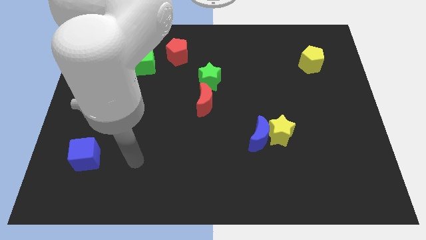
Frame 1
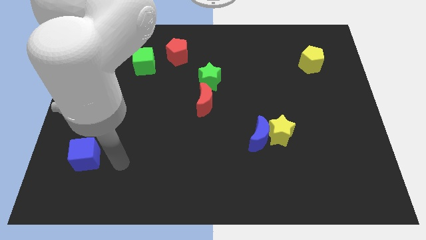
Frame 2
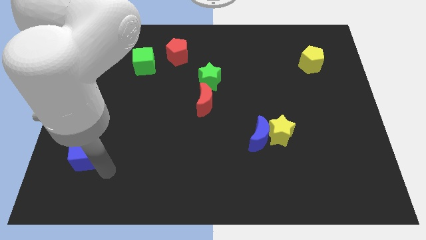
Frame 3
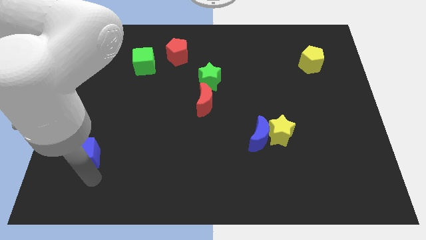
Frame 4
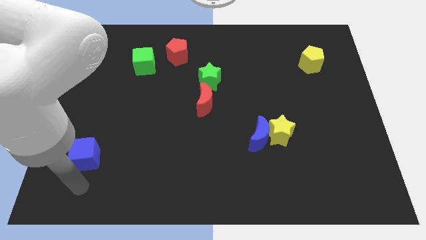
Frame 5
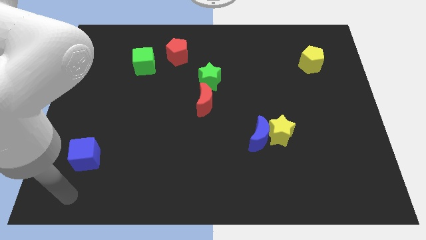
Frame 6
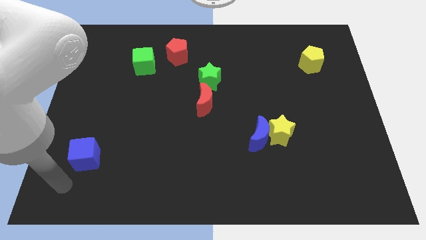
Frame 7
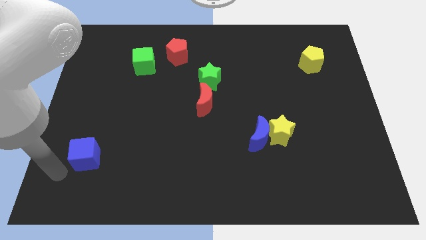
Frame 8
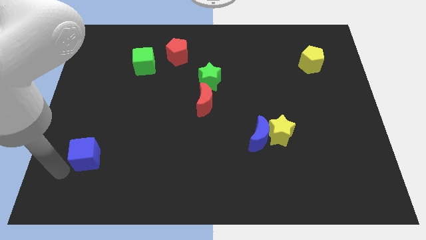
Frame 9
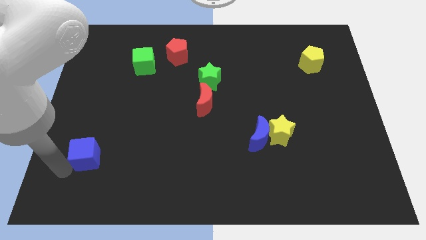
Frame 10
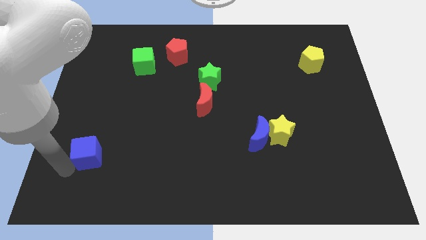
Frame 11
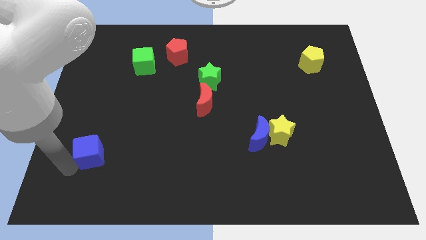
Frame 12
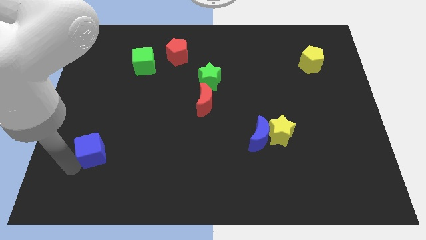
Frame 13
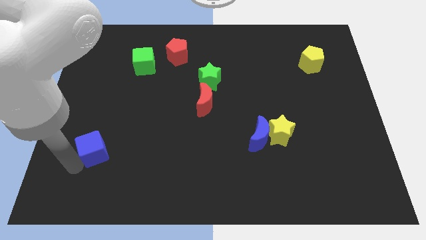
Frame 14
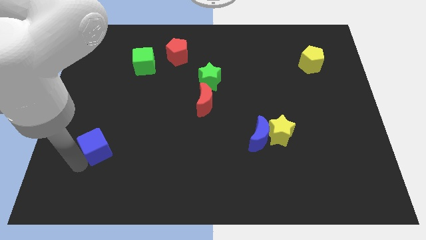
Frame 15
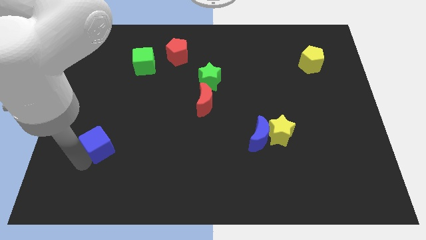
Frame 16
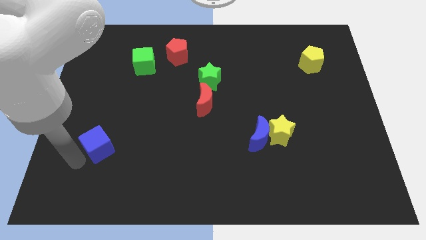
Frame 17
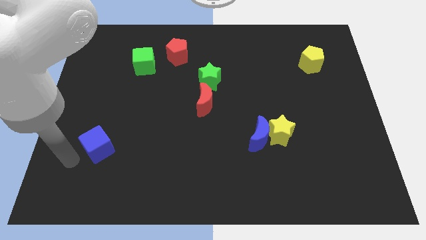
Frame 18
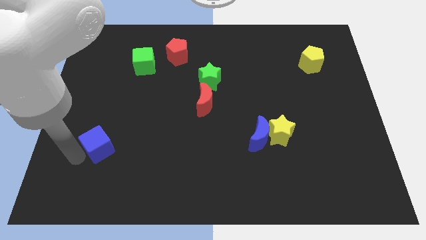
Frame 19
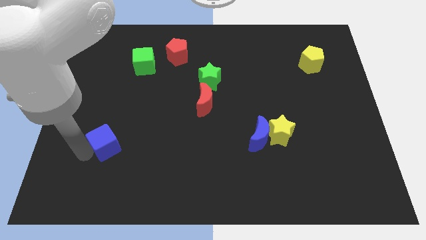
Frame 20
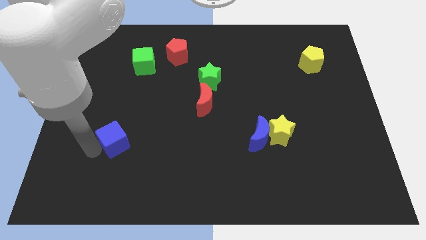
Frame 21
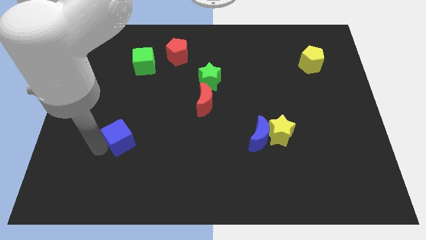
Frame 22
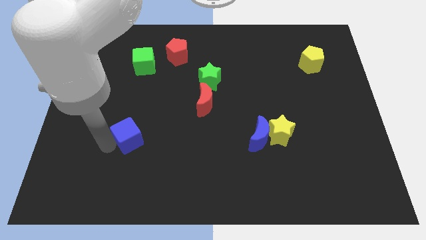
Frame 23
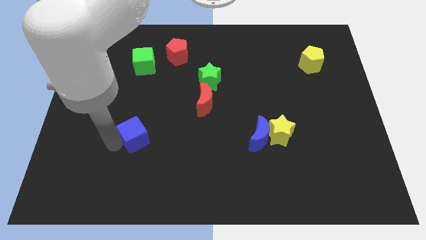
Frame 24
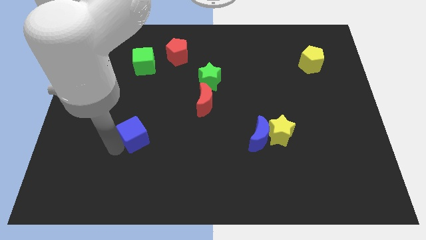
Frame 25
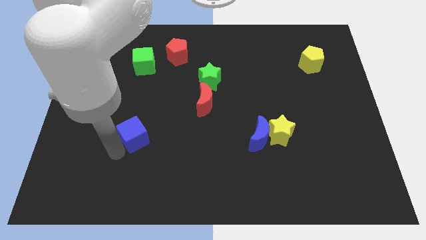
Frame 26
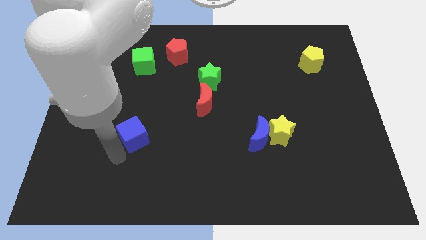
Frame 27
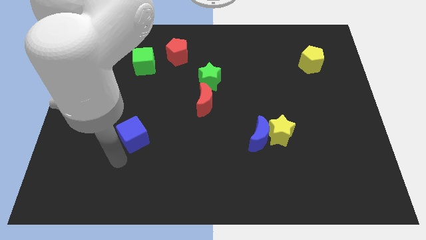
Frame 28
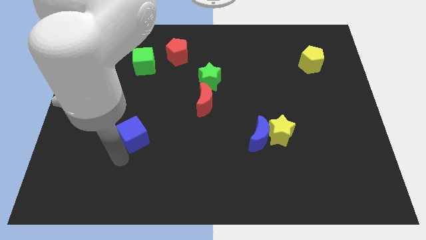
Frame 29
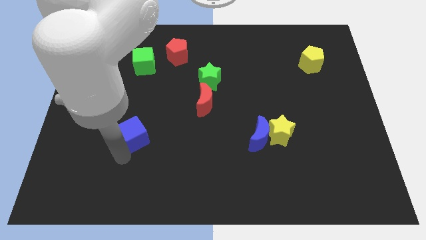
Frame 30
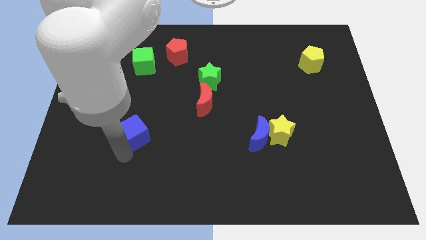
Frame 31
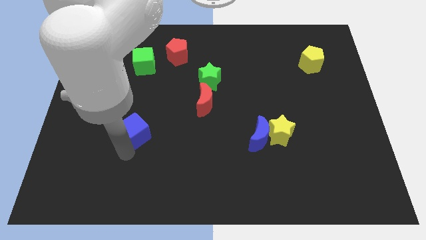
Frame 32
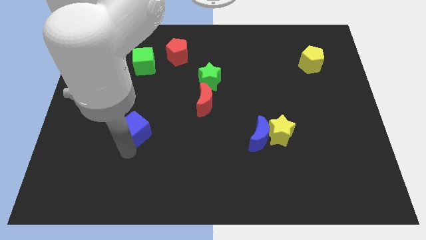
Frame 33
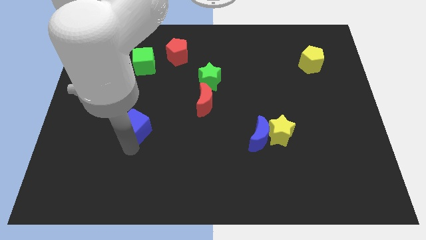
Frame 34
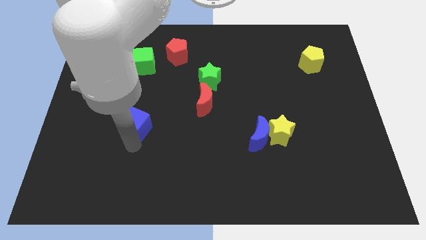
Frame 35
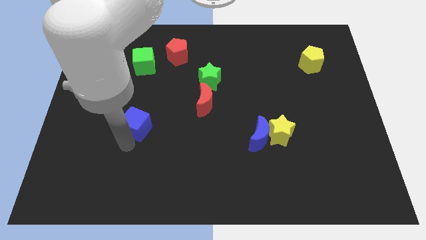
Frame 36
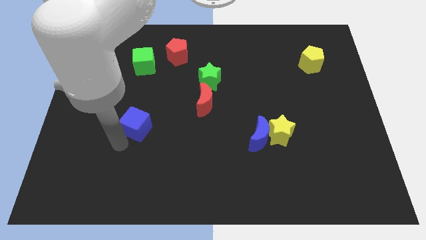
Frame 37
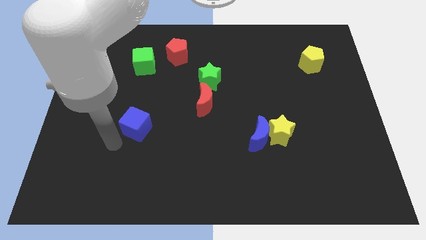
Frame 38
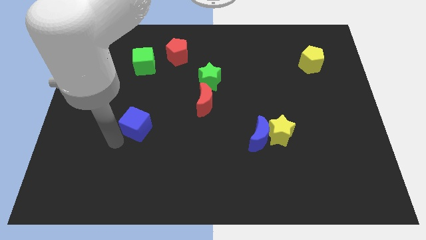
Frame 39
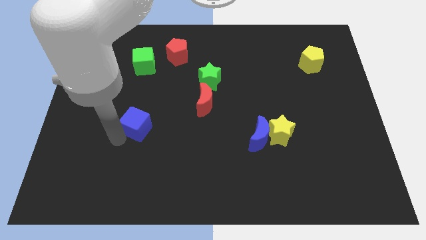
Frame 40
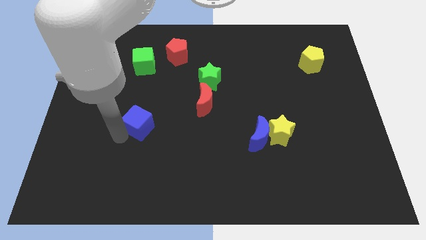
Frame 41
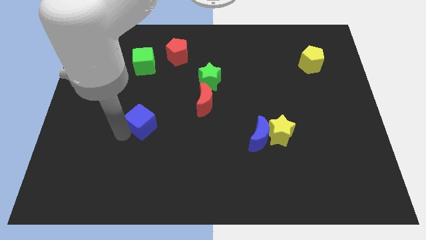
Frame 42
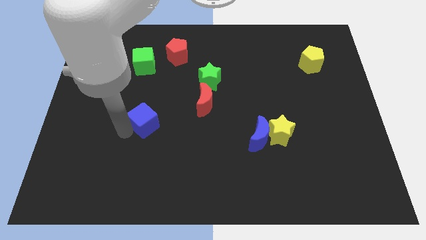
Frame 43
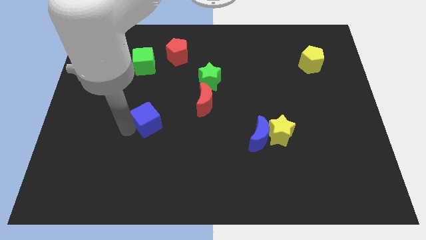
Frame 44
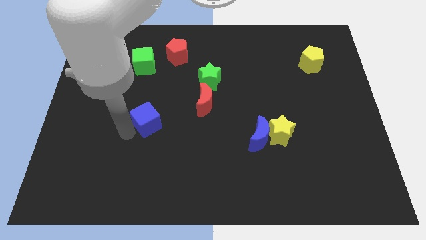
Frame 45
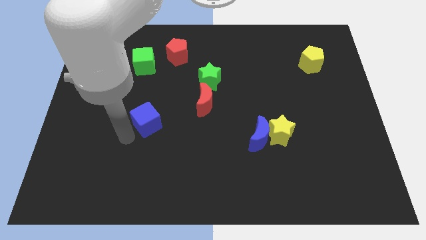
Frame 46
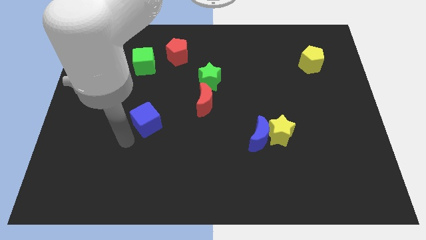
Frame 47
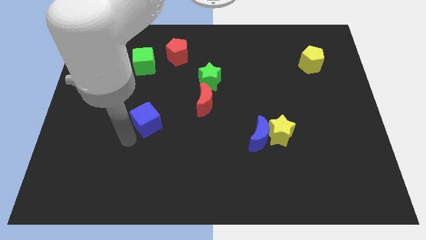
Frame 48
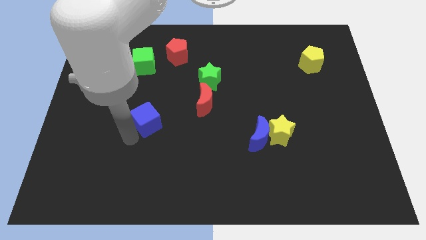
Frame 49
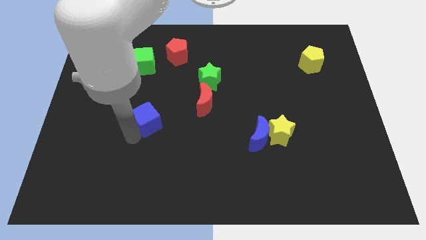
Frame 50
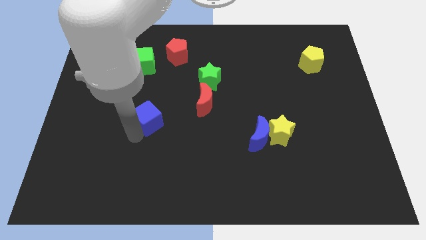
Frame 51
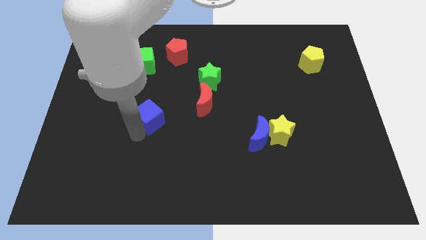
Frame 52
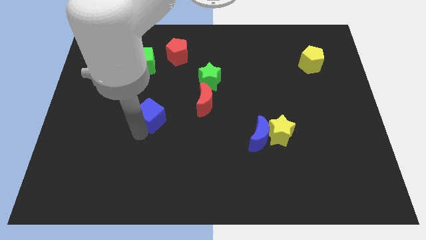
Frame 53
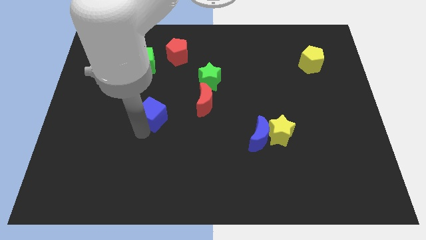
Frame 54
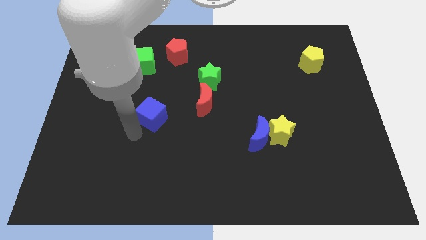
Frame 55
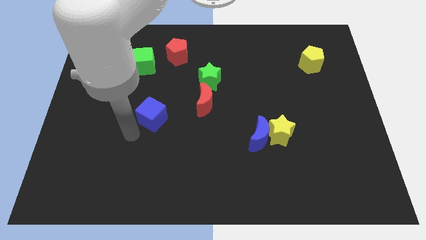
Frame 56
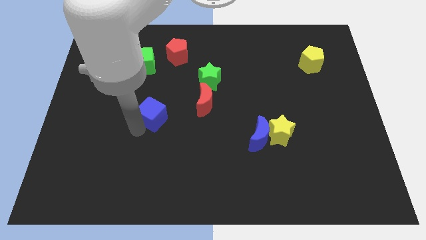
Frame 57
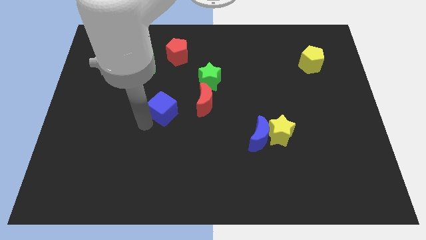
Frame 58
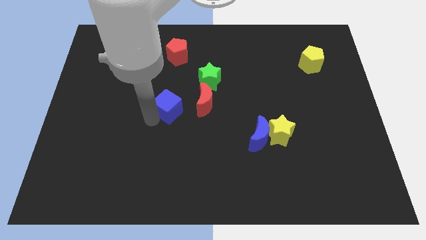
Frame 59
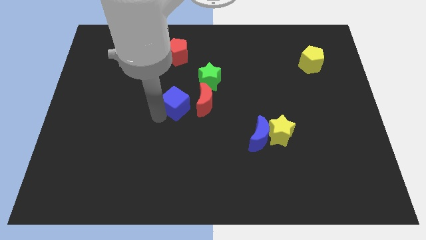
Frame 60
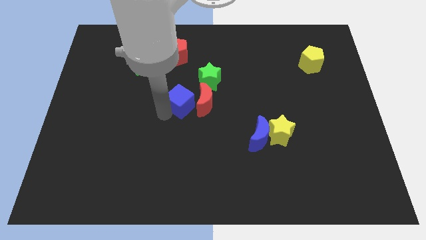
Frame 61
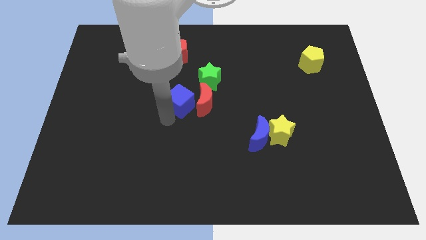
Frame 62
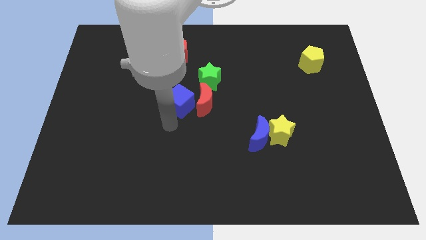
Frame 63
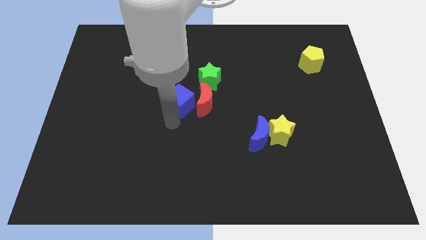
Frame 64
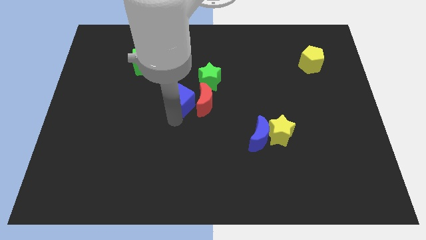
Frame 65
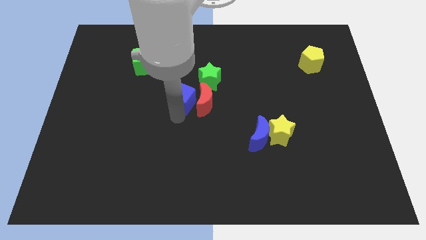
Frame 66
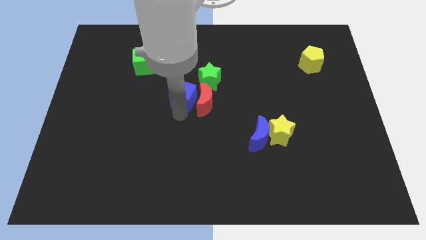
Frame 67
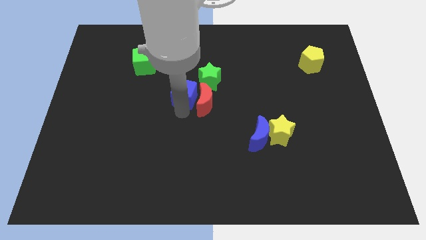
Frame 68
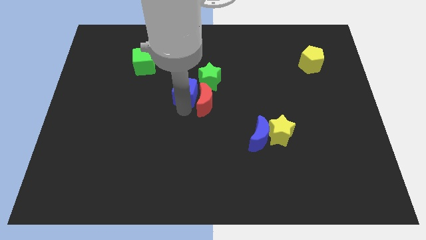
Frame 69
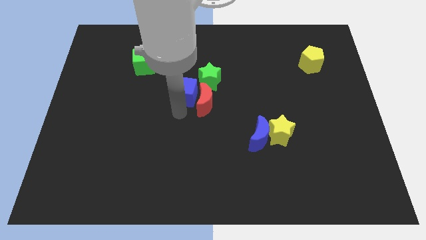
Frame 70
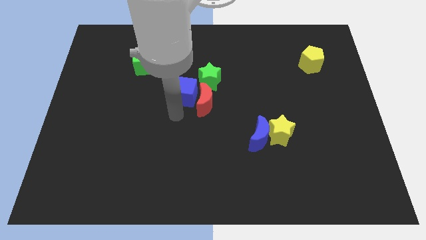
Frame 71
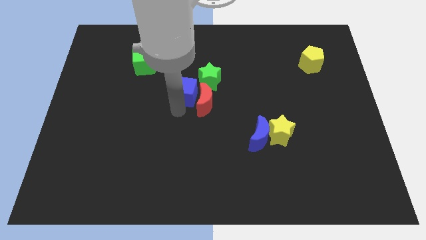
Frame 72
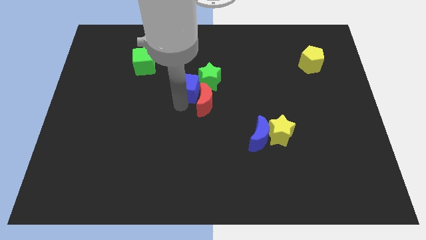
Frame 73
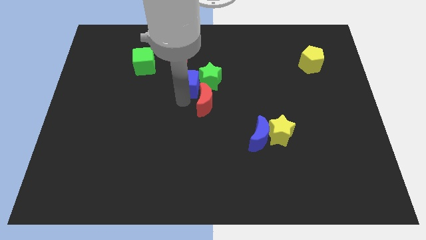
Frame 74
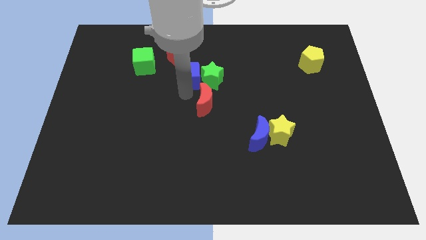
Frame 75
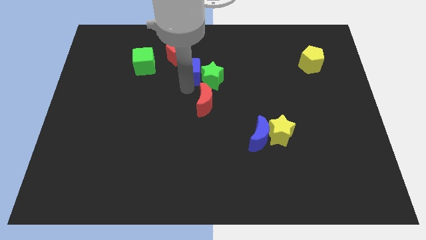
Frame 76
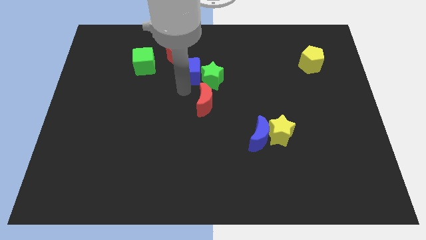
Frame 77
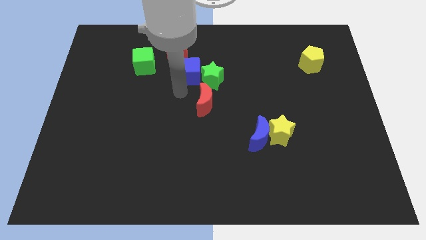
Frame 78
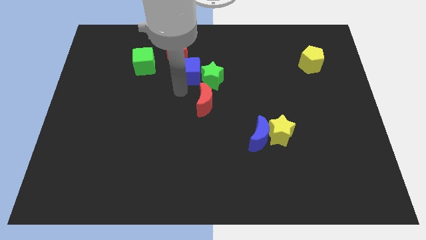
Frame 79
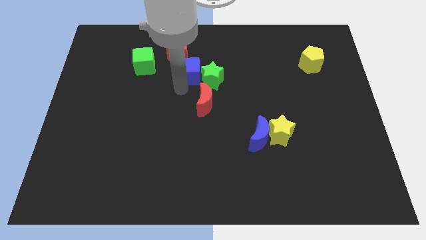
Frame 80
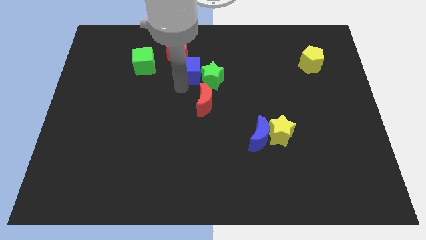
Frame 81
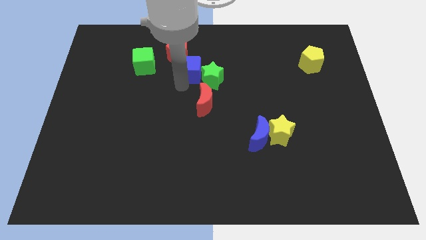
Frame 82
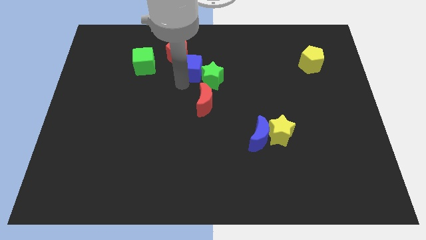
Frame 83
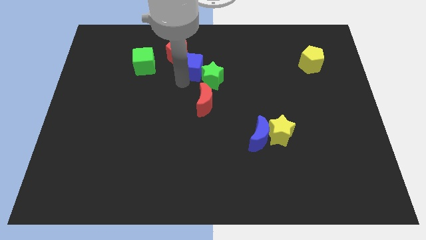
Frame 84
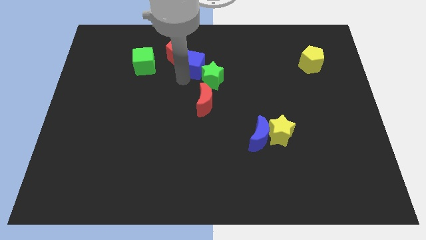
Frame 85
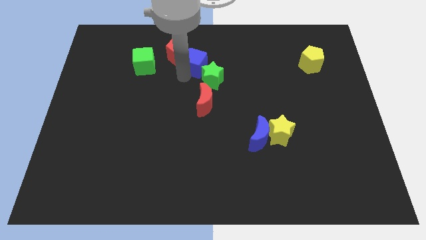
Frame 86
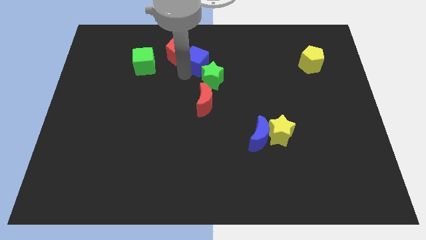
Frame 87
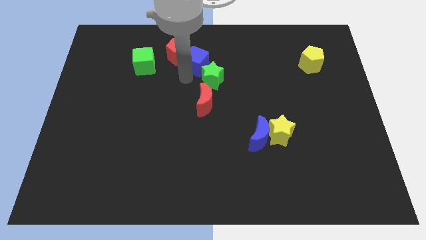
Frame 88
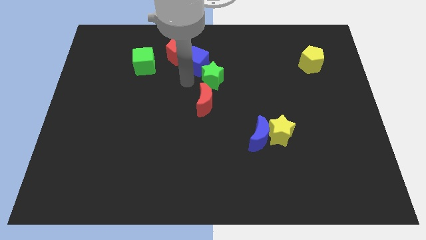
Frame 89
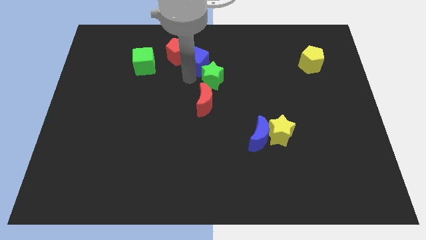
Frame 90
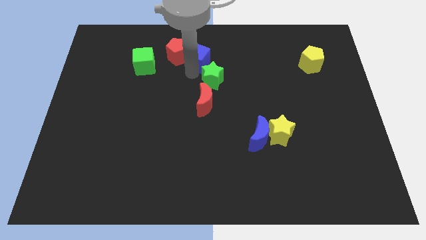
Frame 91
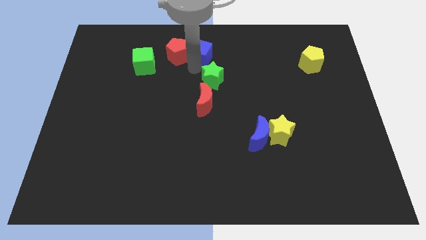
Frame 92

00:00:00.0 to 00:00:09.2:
push the blue cube to the top
